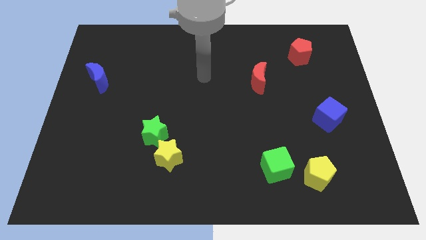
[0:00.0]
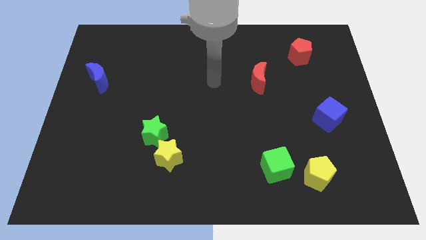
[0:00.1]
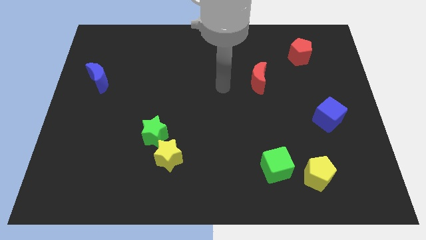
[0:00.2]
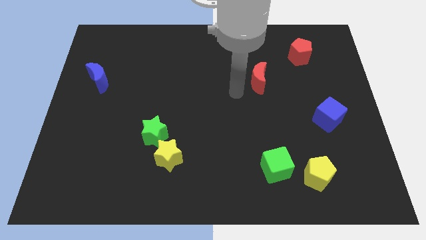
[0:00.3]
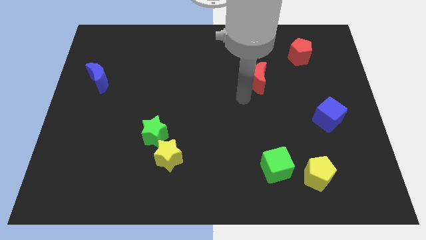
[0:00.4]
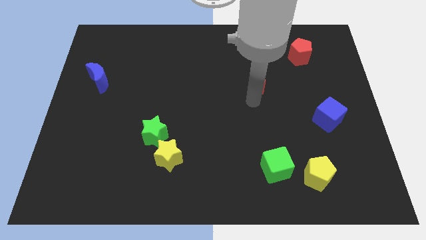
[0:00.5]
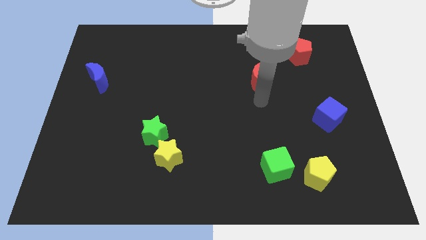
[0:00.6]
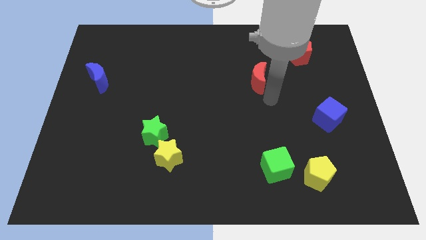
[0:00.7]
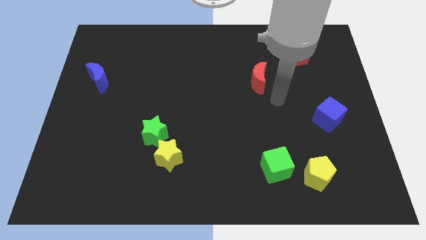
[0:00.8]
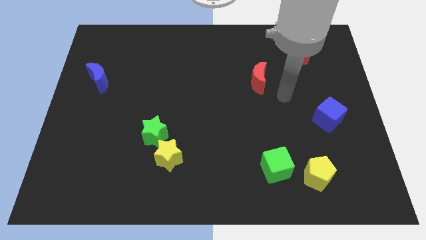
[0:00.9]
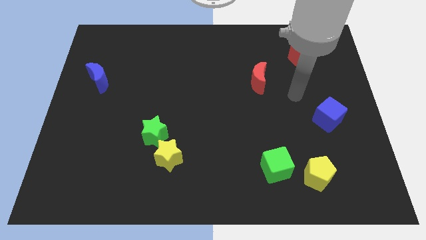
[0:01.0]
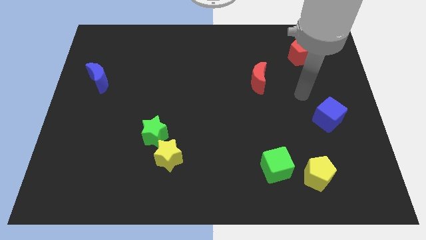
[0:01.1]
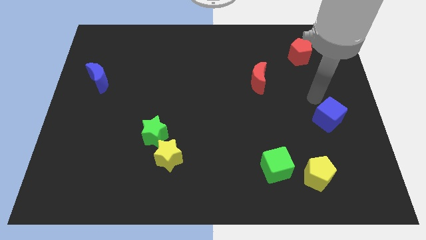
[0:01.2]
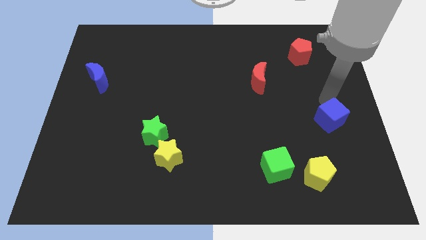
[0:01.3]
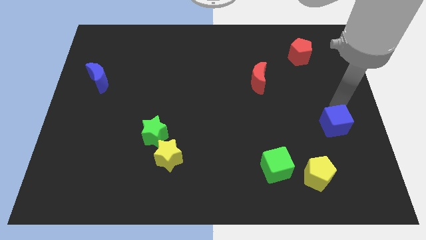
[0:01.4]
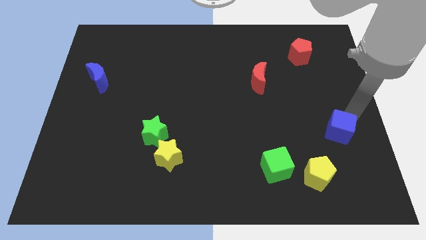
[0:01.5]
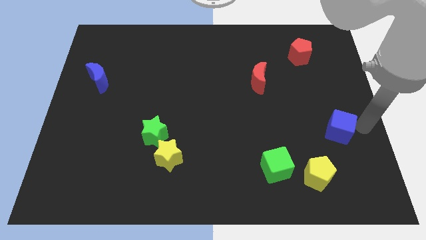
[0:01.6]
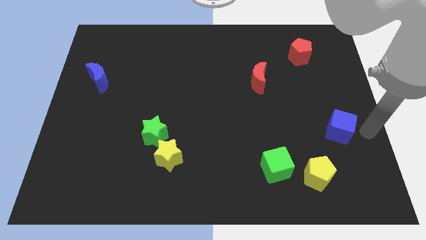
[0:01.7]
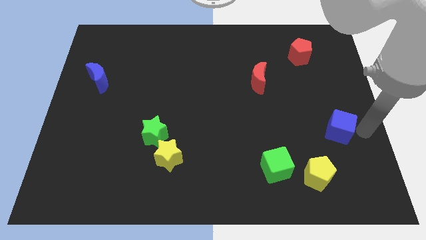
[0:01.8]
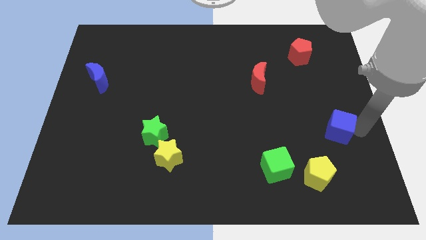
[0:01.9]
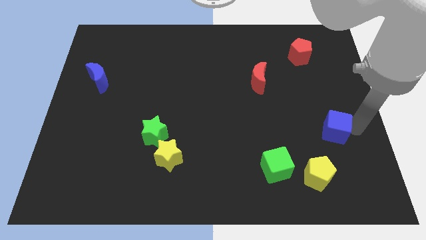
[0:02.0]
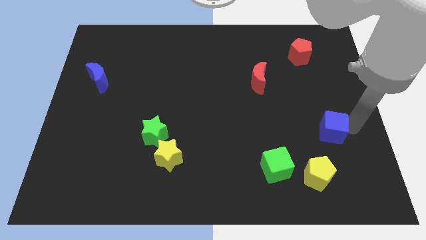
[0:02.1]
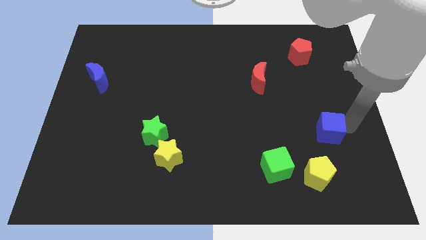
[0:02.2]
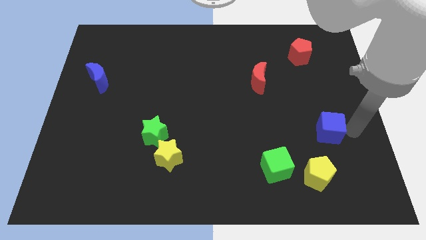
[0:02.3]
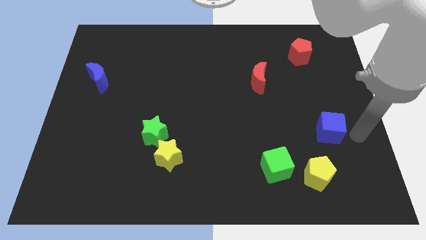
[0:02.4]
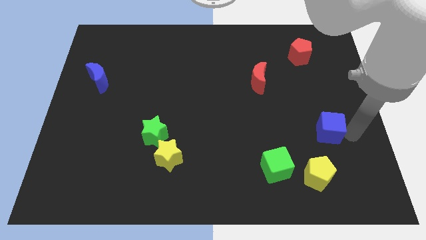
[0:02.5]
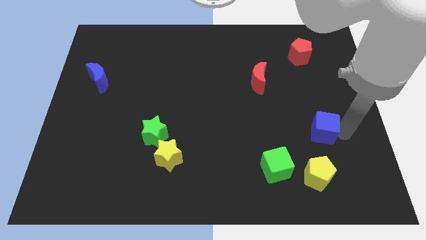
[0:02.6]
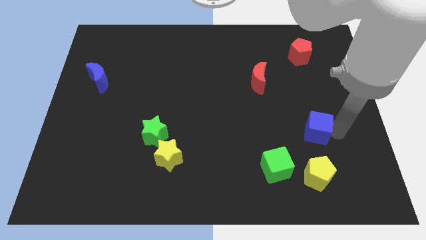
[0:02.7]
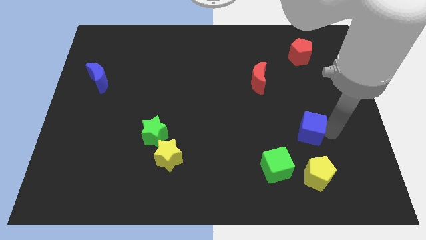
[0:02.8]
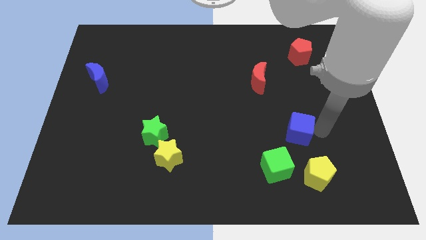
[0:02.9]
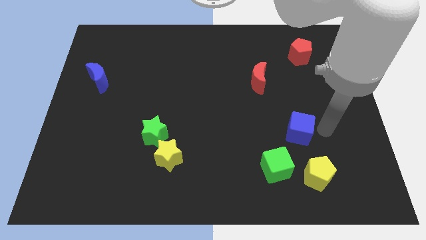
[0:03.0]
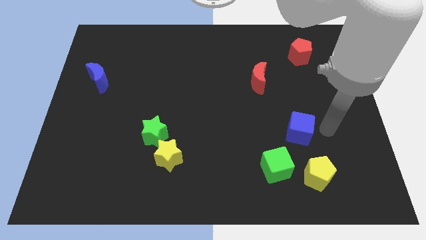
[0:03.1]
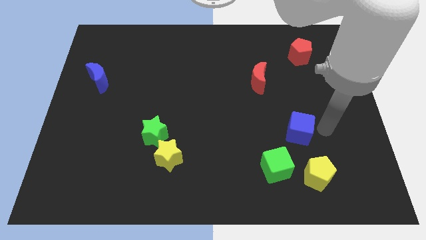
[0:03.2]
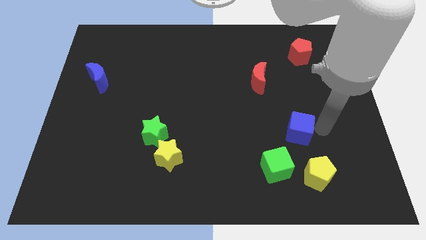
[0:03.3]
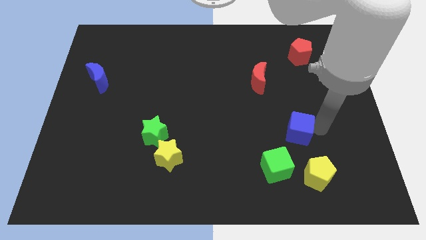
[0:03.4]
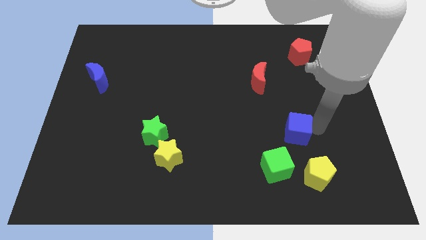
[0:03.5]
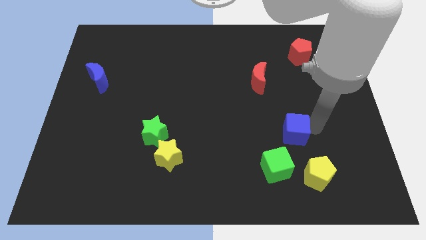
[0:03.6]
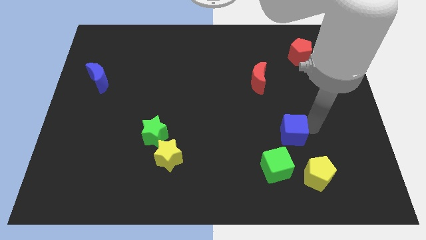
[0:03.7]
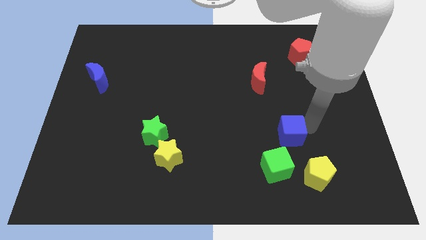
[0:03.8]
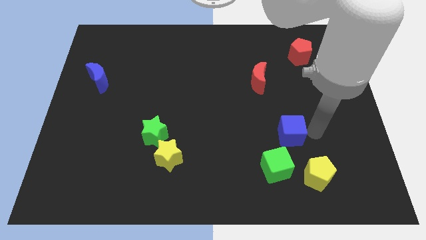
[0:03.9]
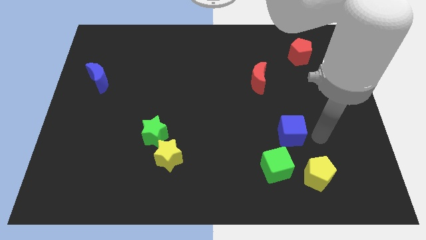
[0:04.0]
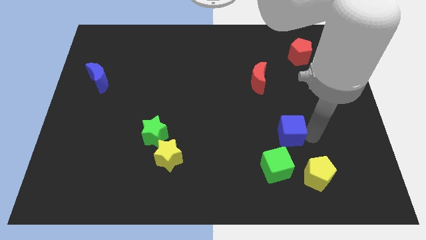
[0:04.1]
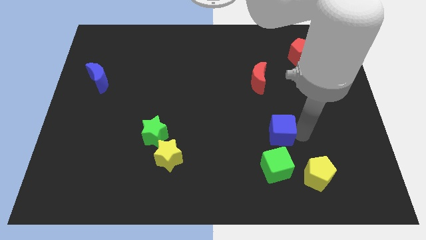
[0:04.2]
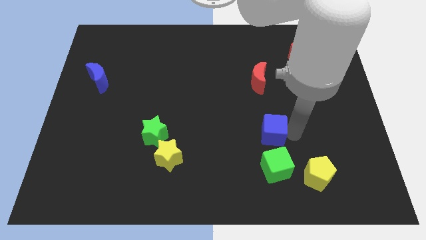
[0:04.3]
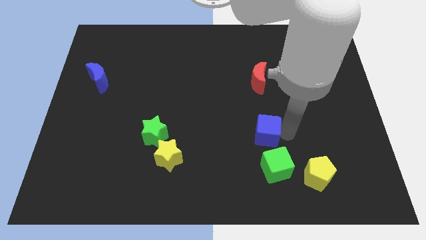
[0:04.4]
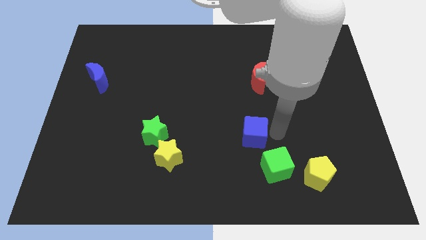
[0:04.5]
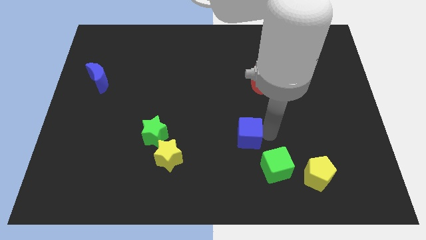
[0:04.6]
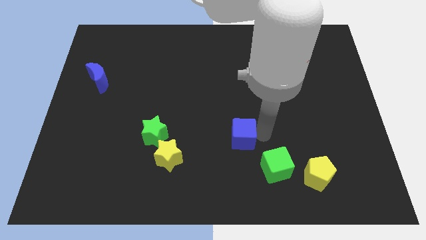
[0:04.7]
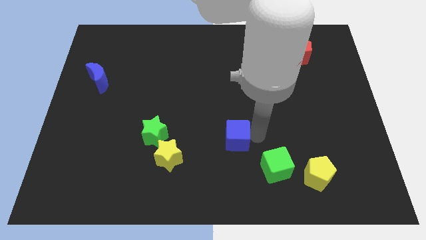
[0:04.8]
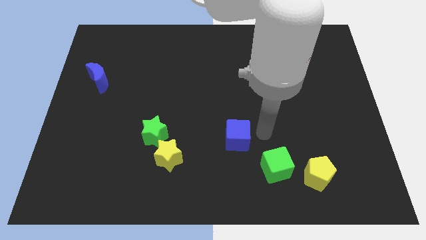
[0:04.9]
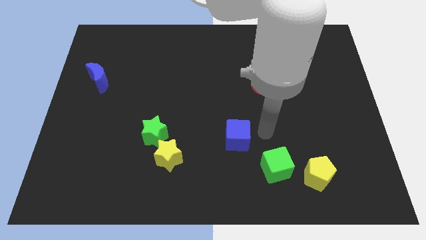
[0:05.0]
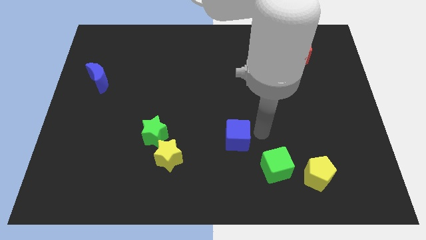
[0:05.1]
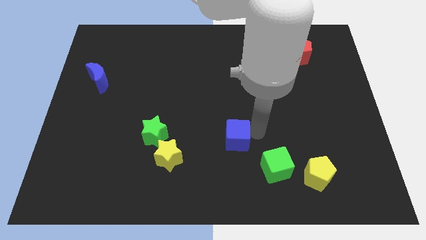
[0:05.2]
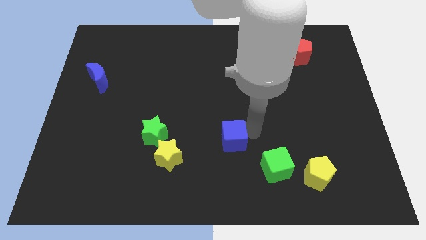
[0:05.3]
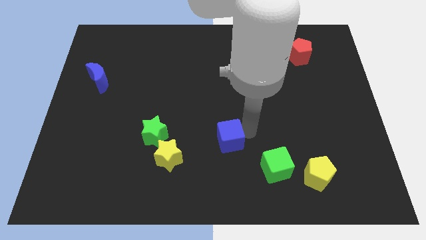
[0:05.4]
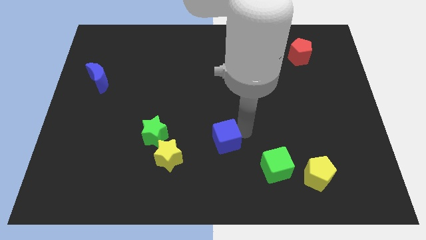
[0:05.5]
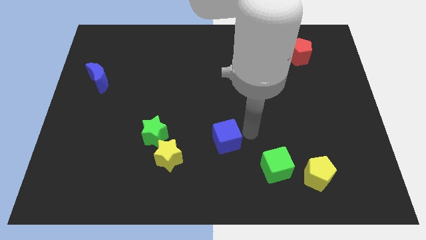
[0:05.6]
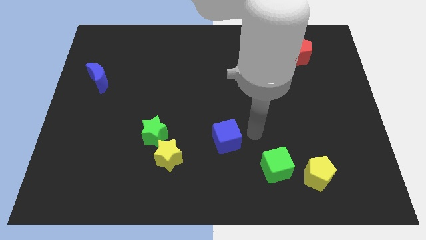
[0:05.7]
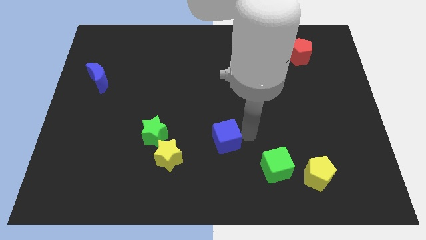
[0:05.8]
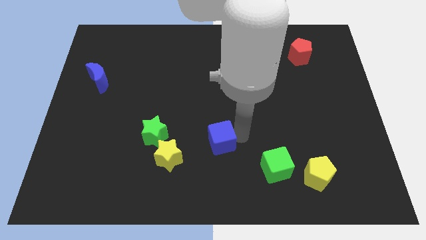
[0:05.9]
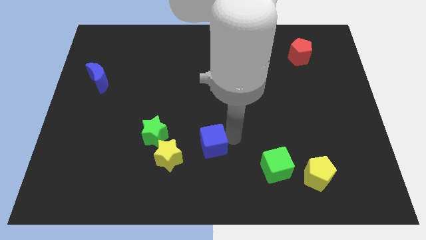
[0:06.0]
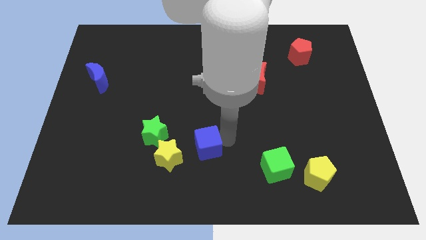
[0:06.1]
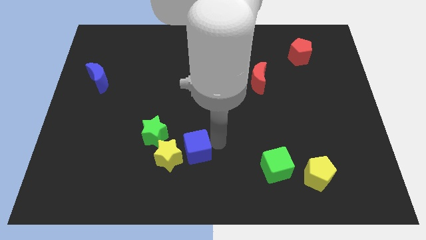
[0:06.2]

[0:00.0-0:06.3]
slide the blue cube close to the yellow star

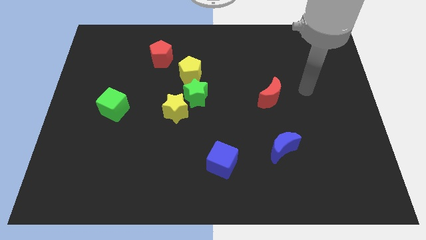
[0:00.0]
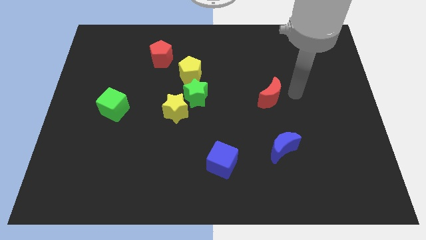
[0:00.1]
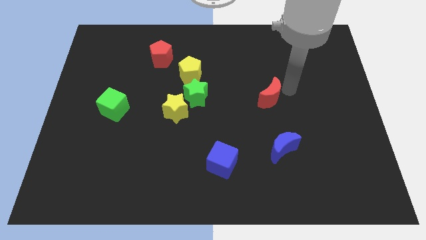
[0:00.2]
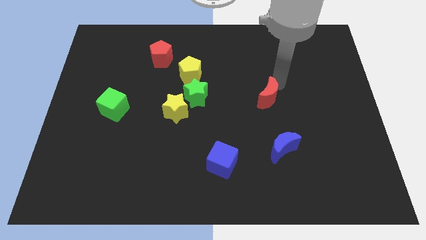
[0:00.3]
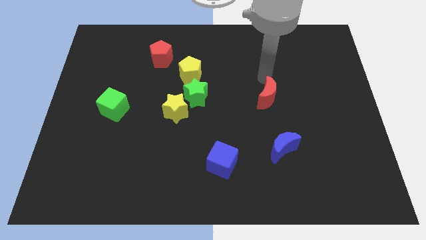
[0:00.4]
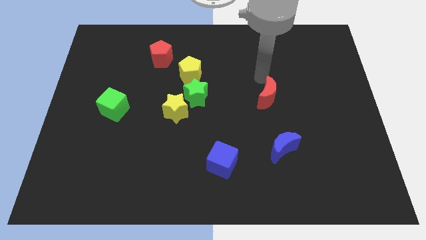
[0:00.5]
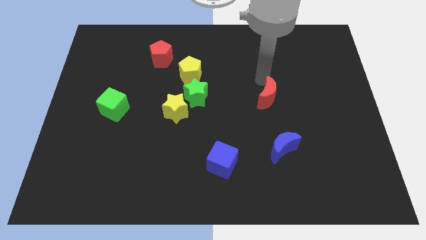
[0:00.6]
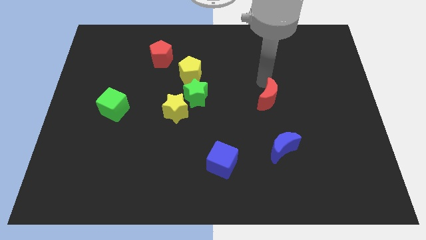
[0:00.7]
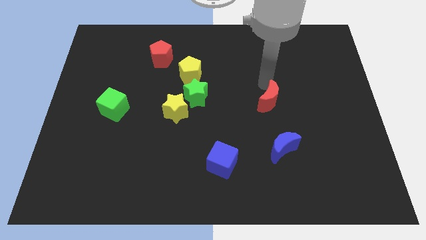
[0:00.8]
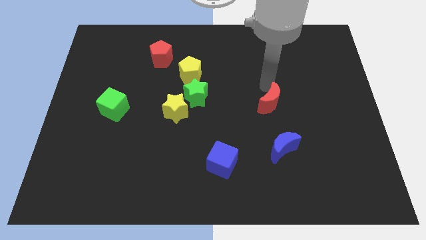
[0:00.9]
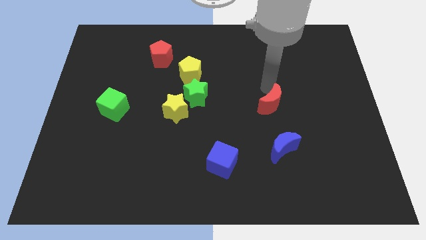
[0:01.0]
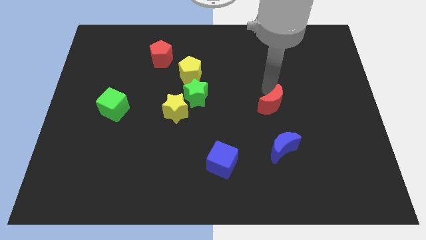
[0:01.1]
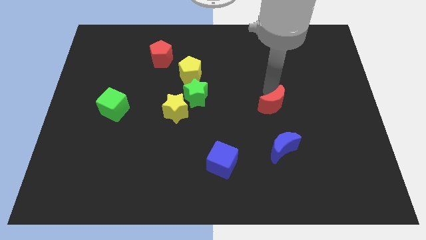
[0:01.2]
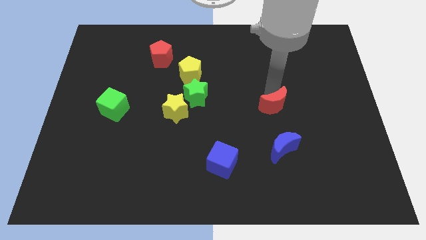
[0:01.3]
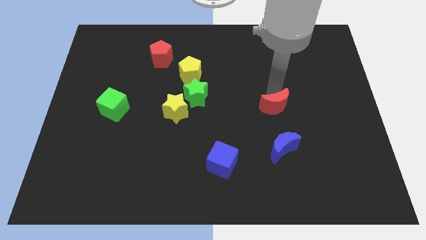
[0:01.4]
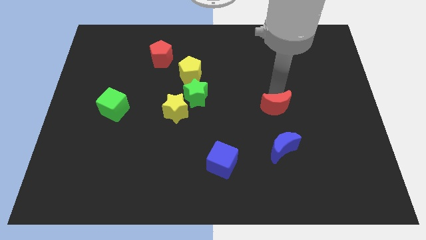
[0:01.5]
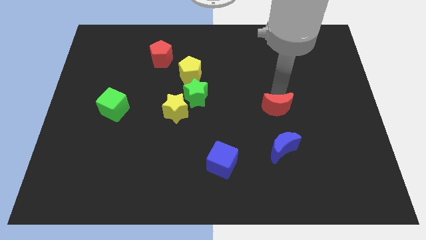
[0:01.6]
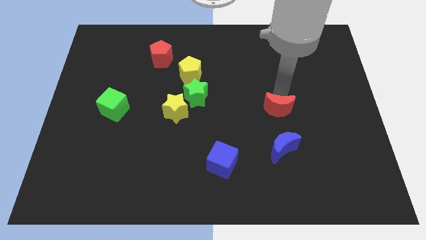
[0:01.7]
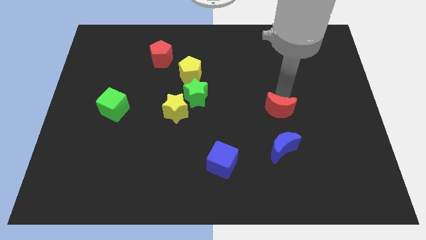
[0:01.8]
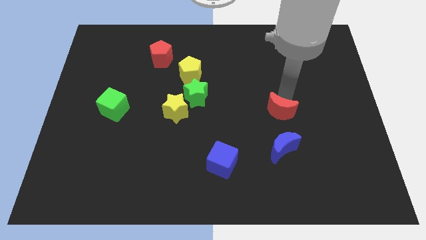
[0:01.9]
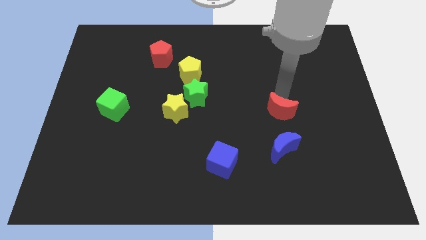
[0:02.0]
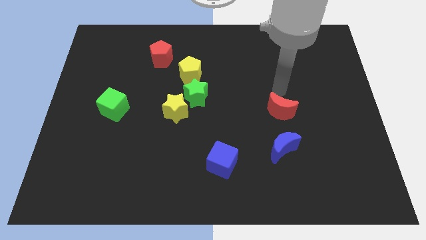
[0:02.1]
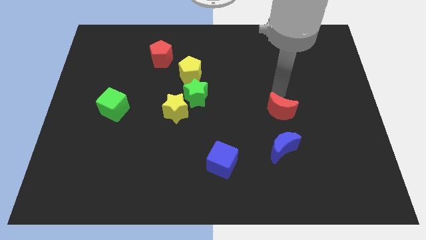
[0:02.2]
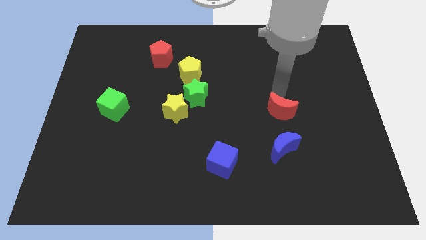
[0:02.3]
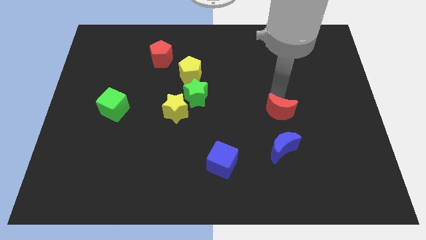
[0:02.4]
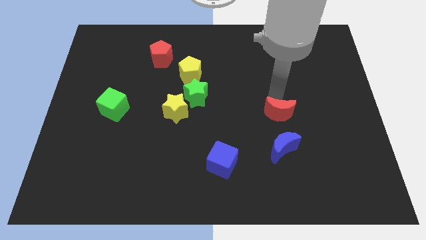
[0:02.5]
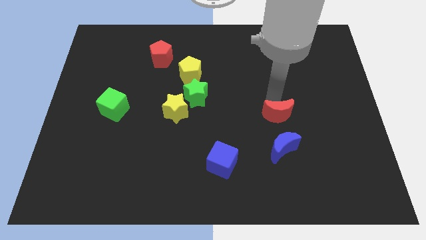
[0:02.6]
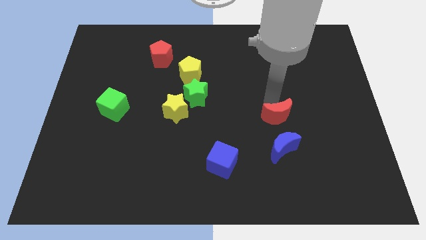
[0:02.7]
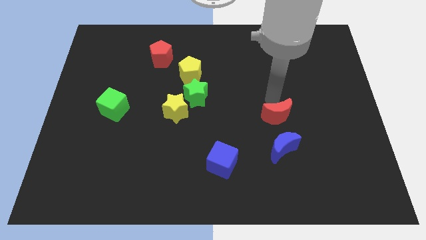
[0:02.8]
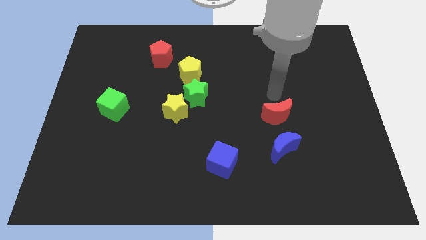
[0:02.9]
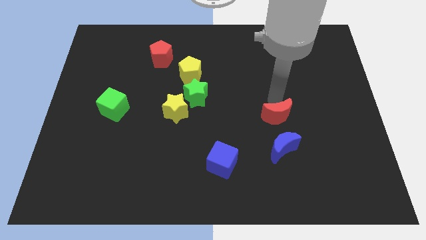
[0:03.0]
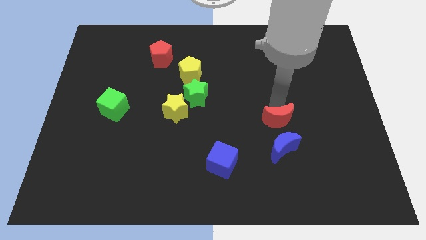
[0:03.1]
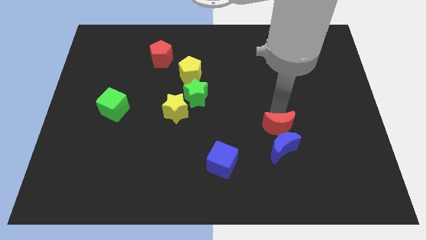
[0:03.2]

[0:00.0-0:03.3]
move the red moon to the blue moon
